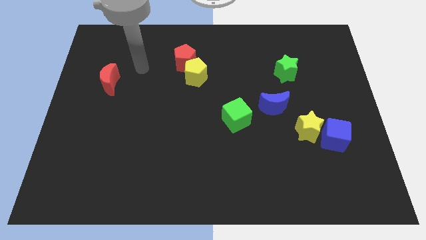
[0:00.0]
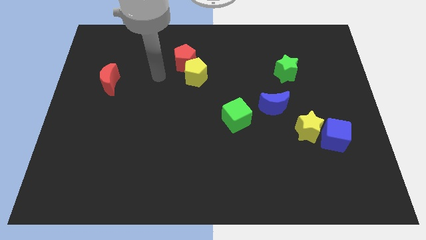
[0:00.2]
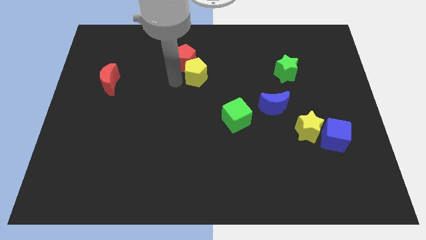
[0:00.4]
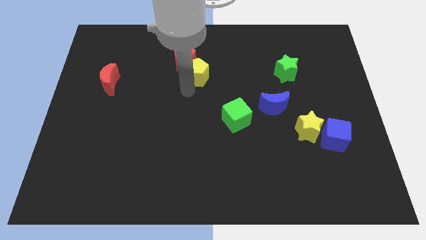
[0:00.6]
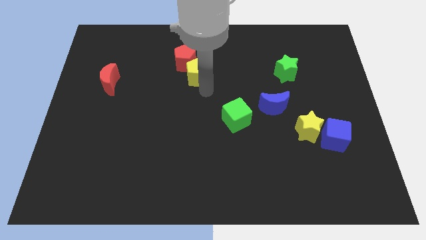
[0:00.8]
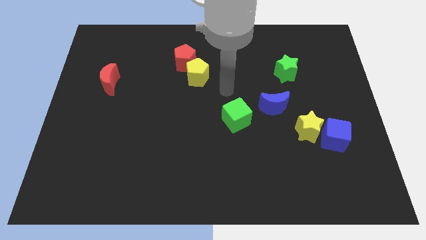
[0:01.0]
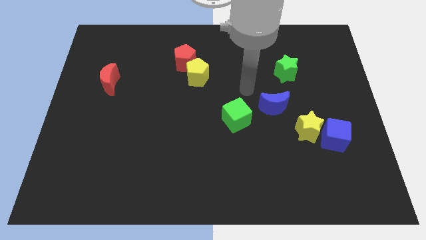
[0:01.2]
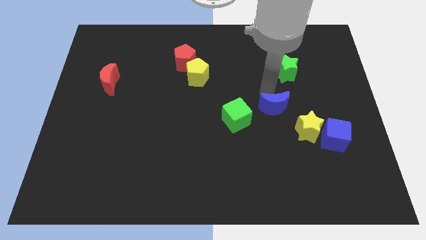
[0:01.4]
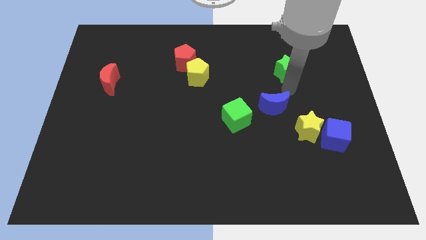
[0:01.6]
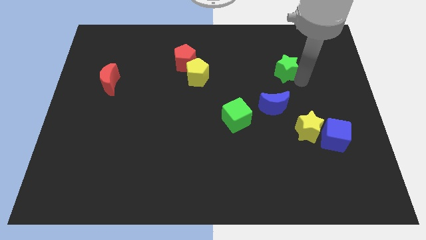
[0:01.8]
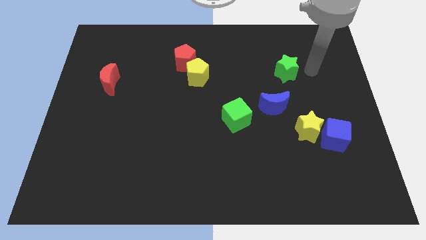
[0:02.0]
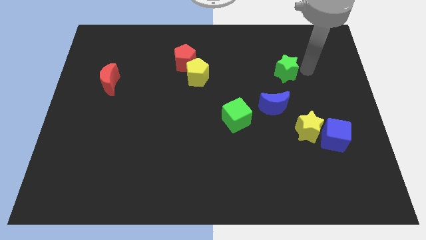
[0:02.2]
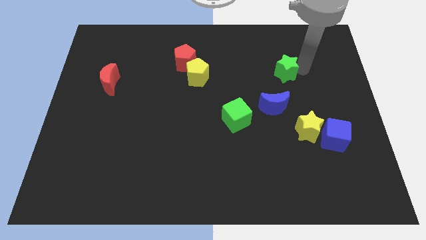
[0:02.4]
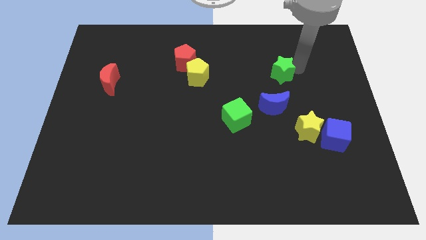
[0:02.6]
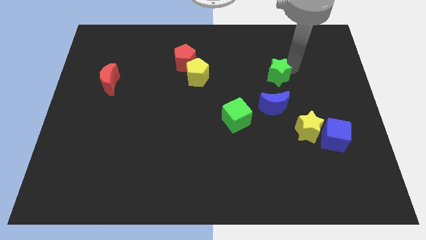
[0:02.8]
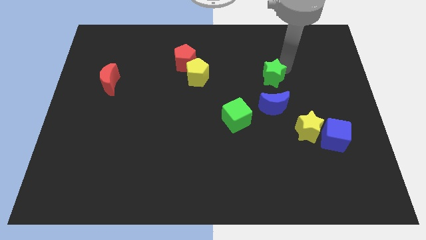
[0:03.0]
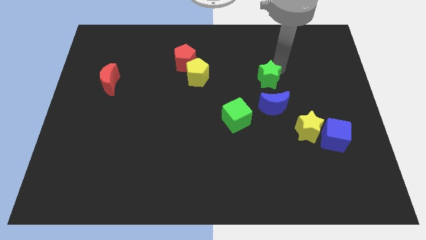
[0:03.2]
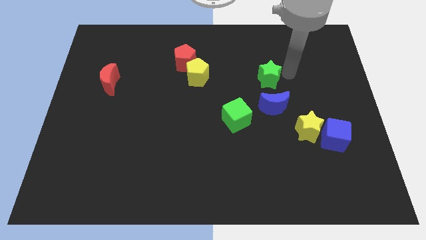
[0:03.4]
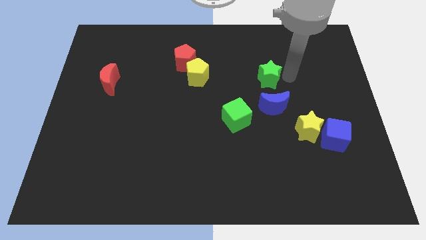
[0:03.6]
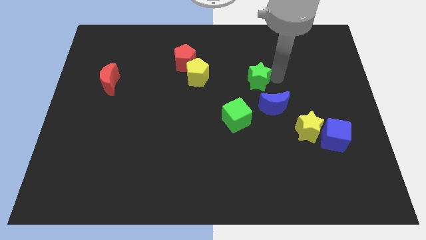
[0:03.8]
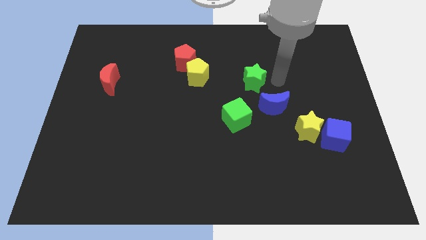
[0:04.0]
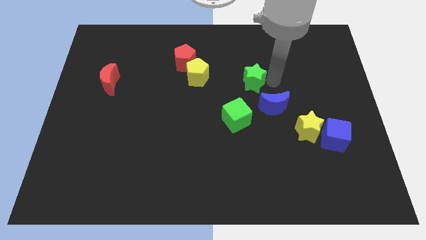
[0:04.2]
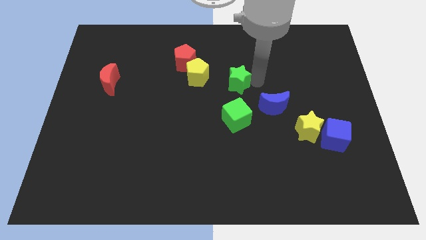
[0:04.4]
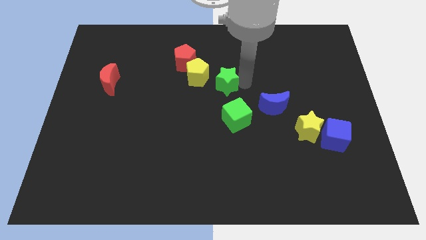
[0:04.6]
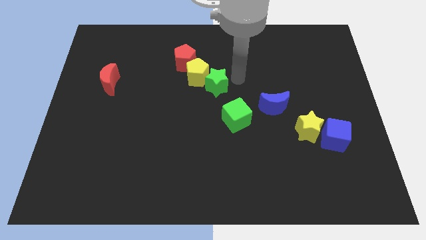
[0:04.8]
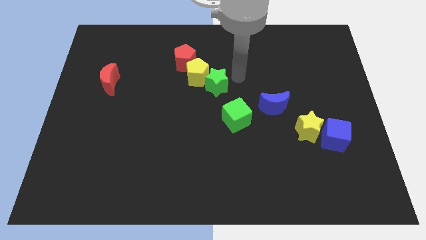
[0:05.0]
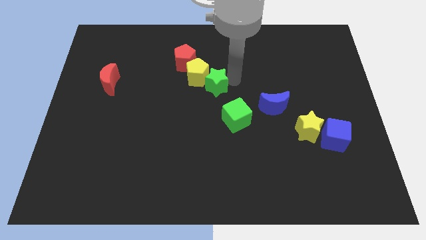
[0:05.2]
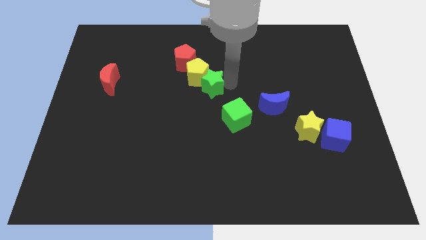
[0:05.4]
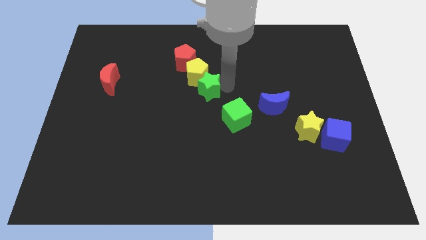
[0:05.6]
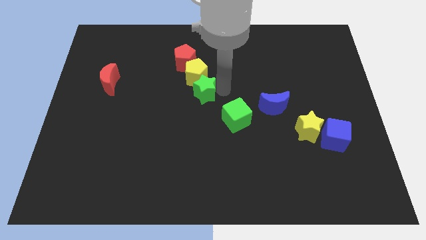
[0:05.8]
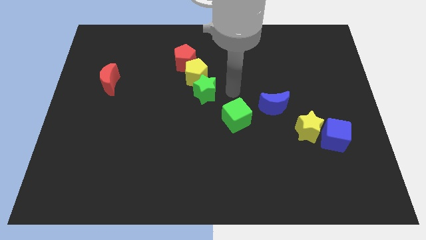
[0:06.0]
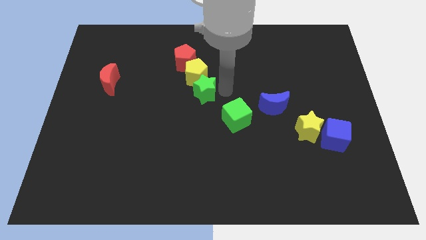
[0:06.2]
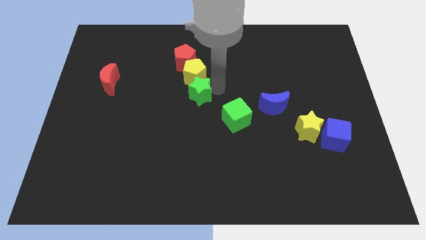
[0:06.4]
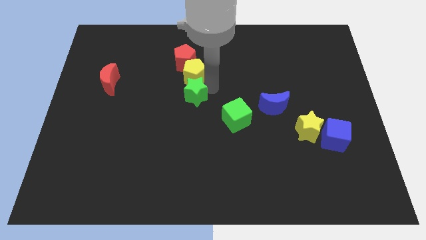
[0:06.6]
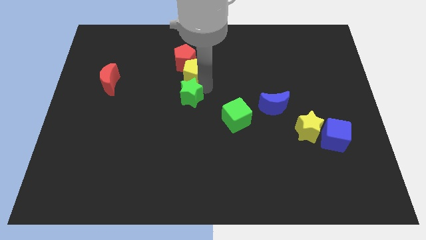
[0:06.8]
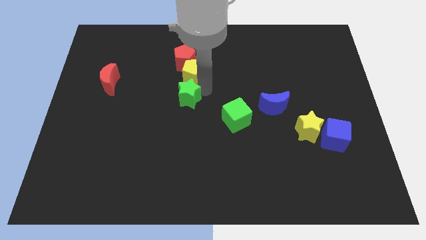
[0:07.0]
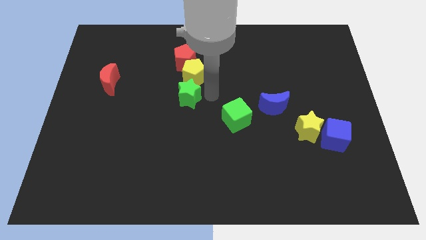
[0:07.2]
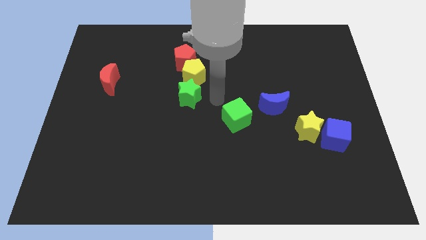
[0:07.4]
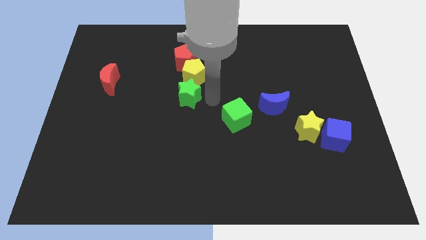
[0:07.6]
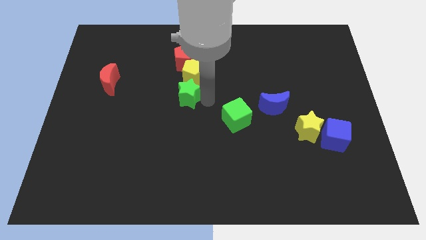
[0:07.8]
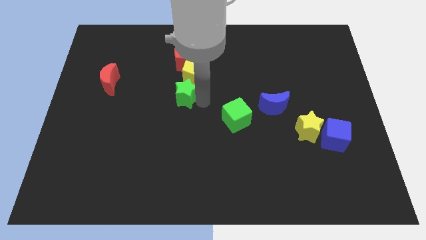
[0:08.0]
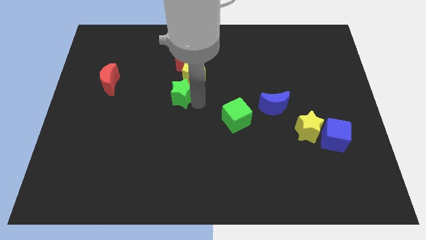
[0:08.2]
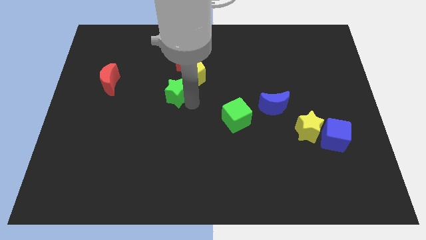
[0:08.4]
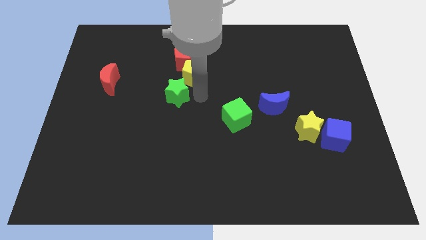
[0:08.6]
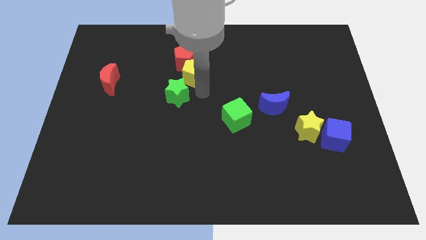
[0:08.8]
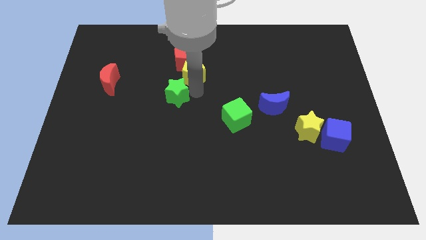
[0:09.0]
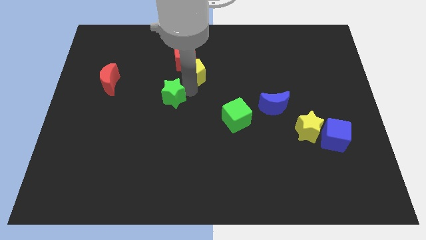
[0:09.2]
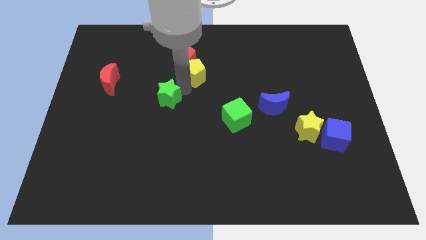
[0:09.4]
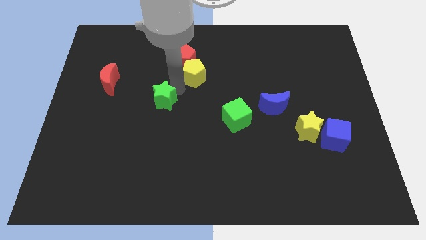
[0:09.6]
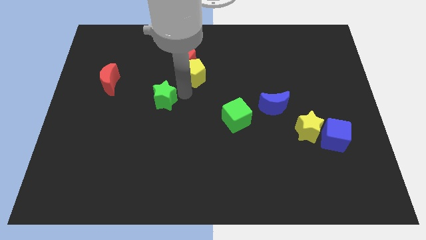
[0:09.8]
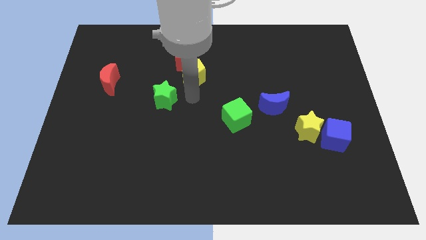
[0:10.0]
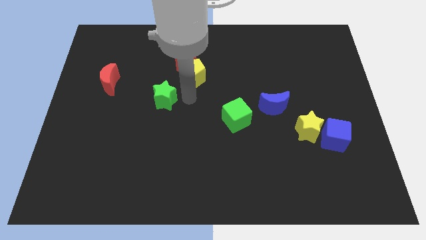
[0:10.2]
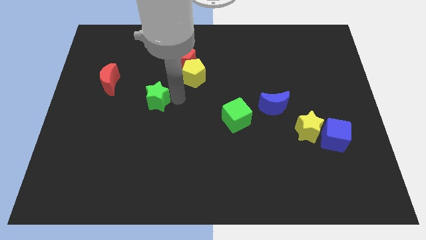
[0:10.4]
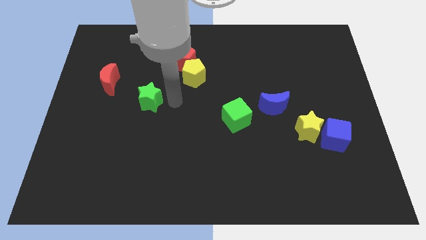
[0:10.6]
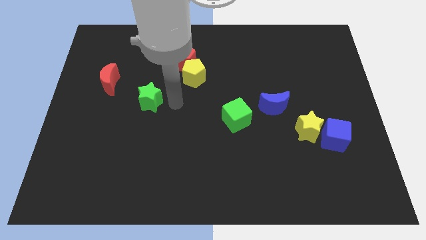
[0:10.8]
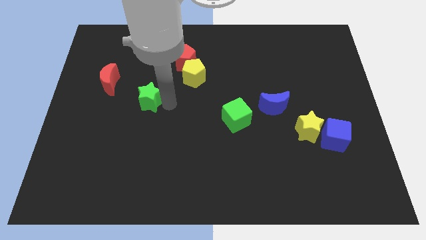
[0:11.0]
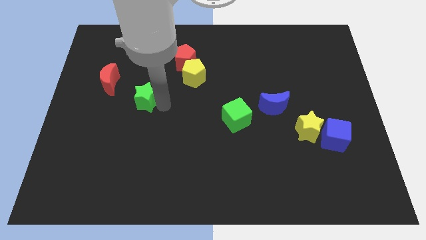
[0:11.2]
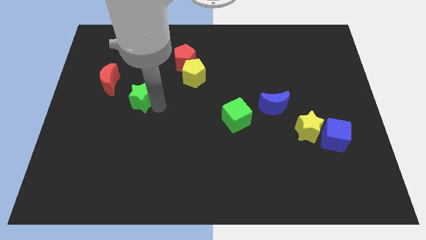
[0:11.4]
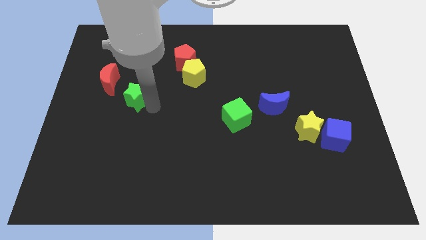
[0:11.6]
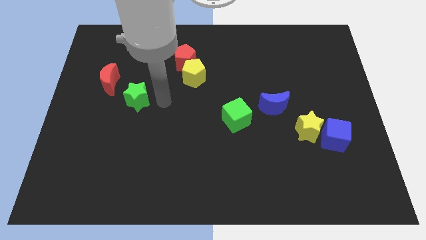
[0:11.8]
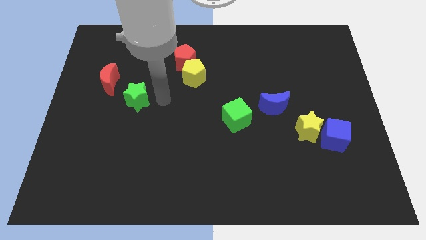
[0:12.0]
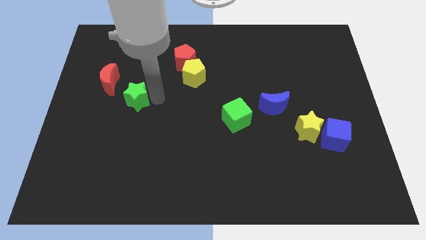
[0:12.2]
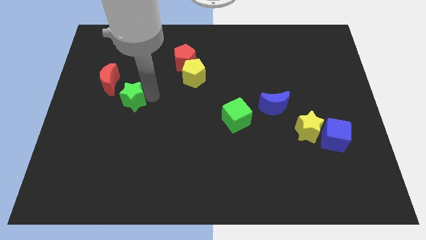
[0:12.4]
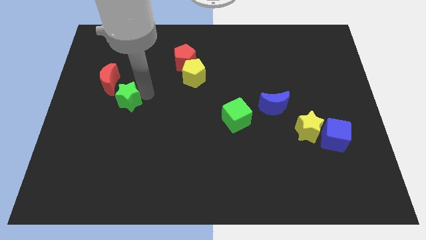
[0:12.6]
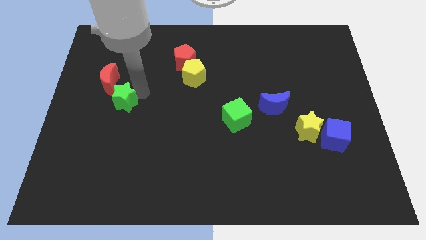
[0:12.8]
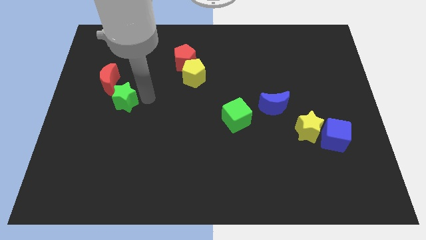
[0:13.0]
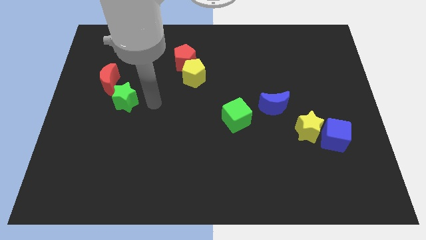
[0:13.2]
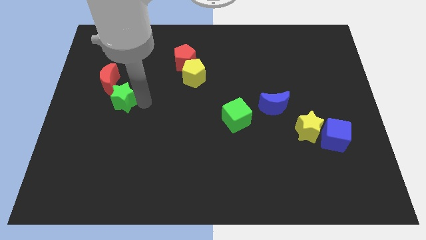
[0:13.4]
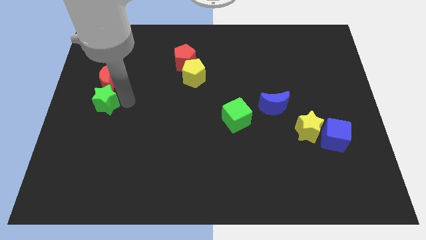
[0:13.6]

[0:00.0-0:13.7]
slide the green star to the left side of the board
